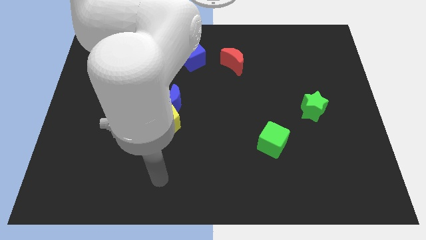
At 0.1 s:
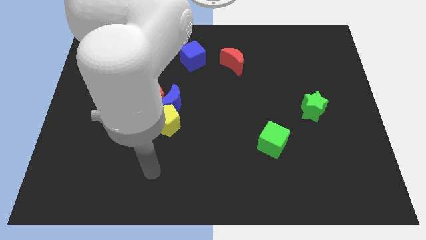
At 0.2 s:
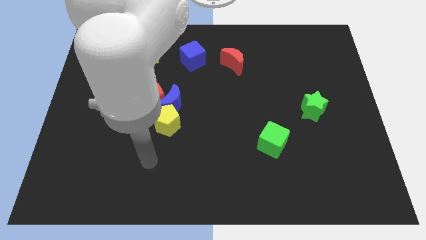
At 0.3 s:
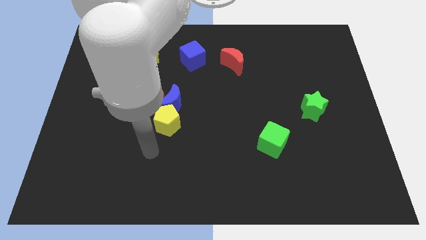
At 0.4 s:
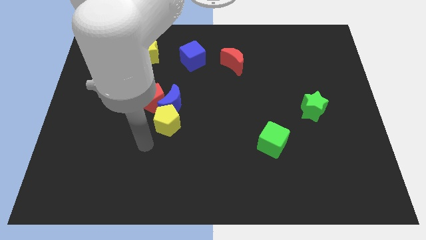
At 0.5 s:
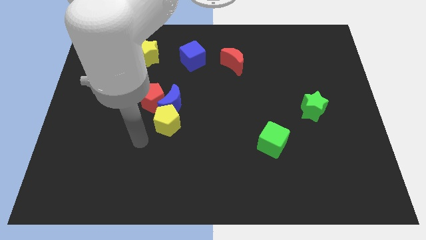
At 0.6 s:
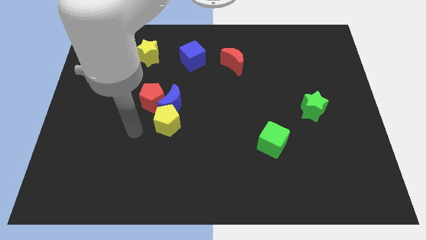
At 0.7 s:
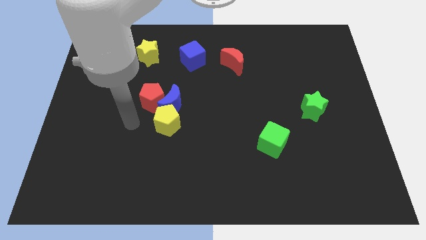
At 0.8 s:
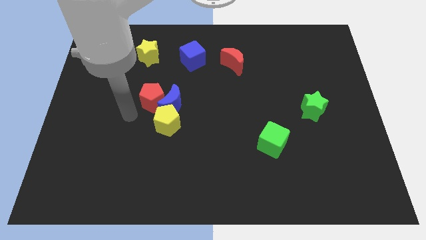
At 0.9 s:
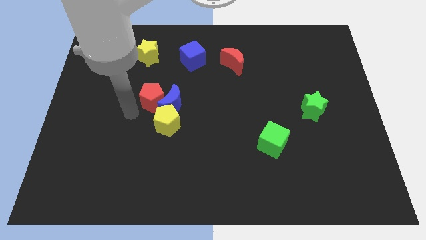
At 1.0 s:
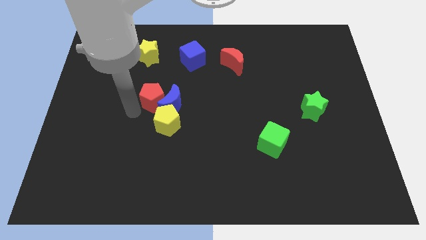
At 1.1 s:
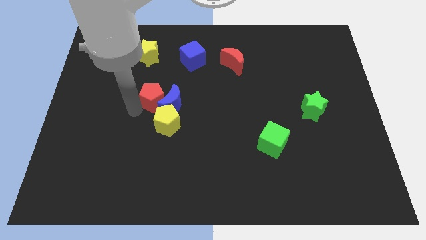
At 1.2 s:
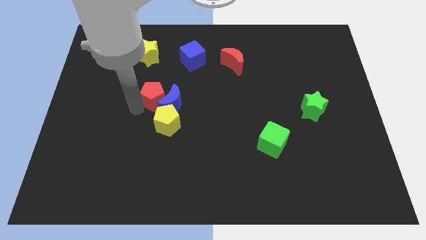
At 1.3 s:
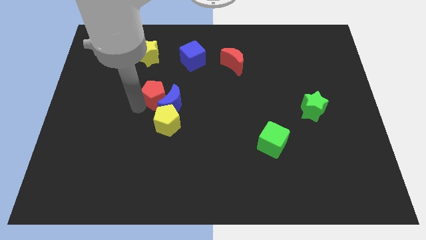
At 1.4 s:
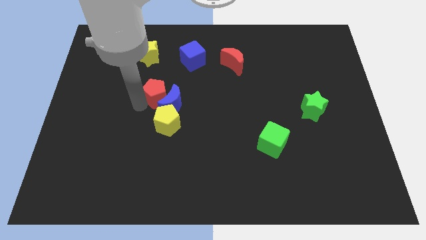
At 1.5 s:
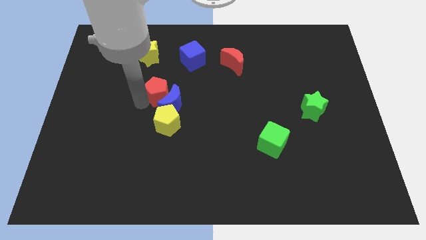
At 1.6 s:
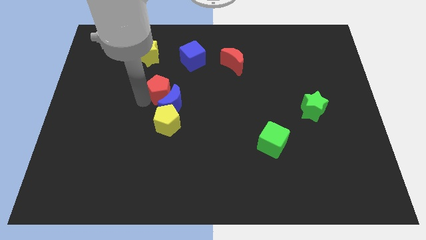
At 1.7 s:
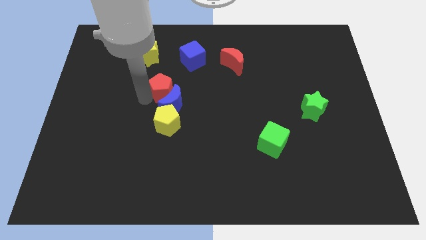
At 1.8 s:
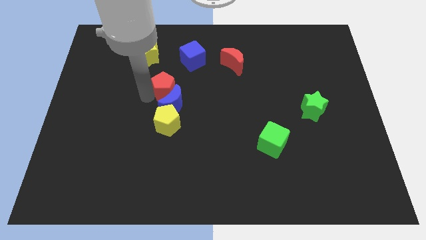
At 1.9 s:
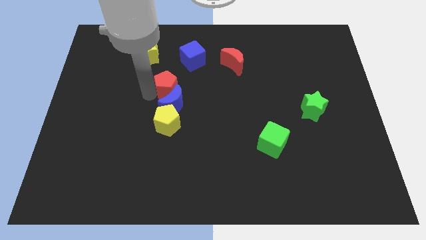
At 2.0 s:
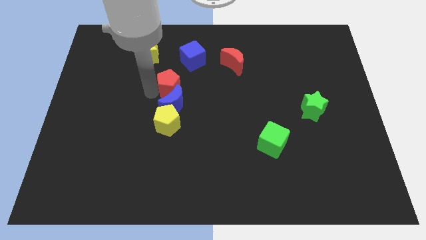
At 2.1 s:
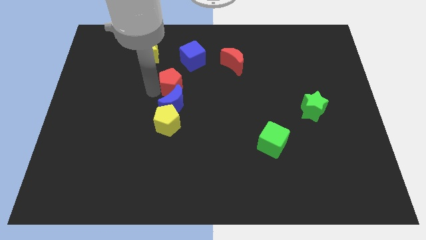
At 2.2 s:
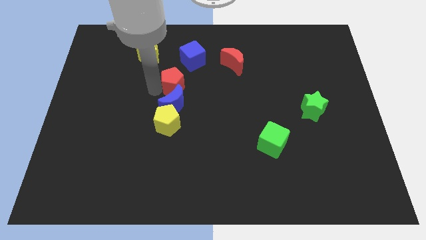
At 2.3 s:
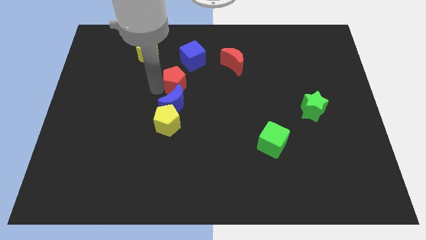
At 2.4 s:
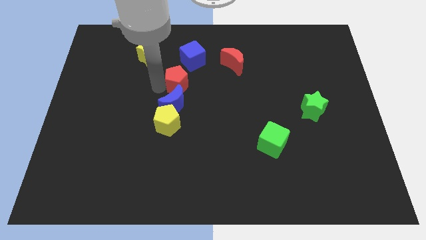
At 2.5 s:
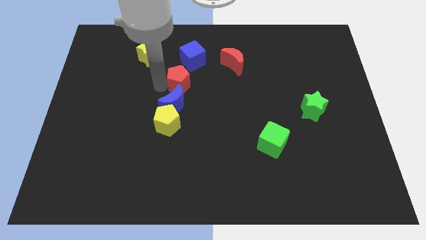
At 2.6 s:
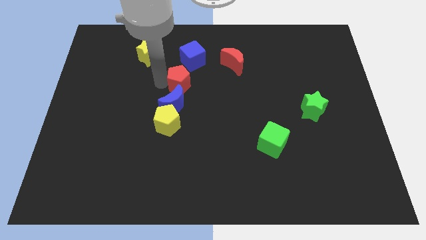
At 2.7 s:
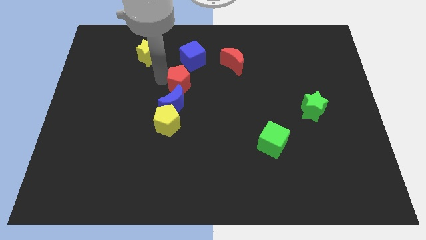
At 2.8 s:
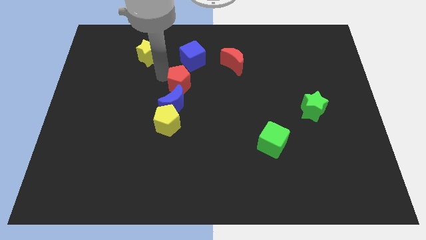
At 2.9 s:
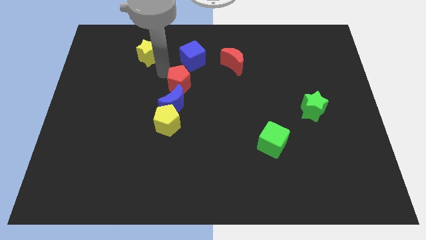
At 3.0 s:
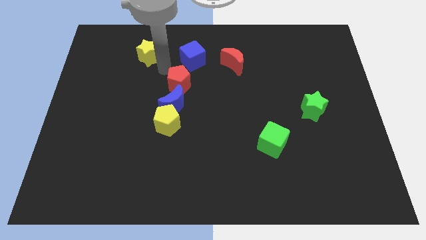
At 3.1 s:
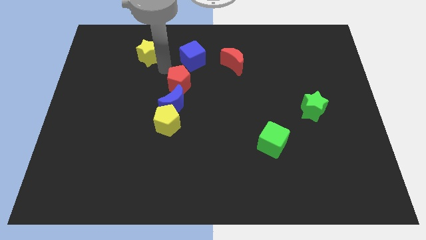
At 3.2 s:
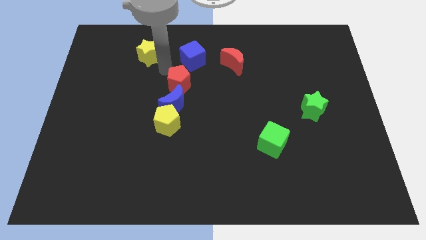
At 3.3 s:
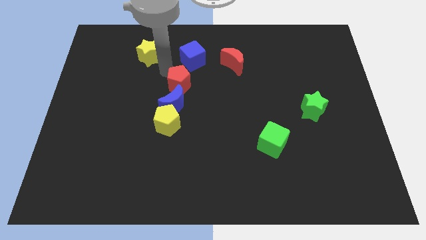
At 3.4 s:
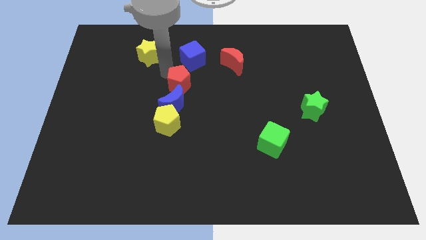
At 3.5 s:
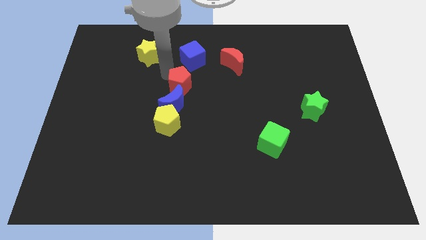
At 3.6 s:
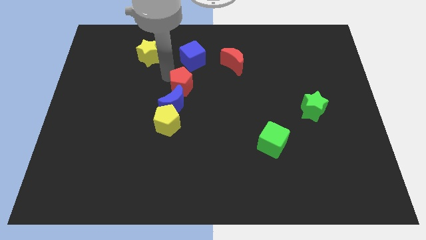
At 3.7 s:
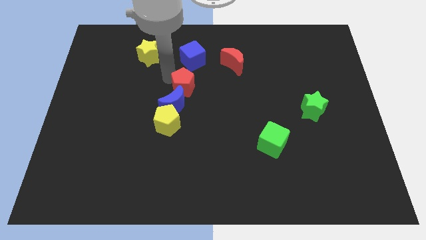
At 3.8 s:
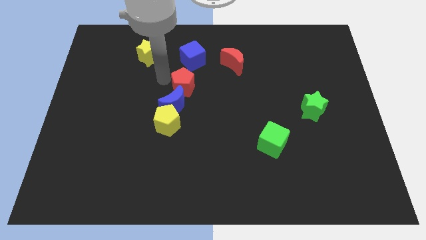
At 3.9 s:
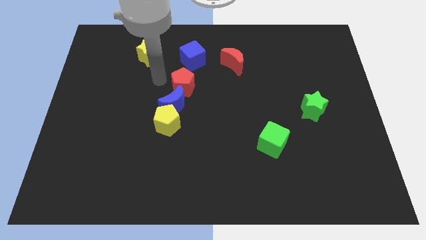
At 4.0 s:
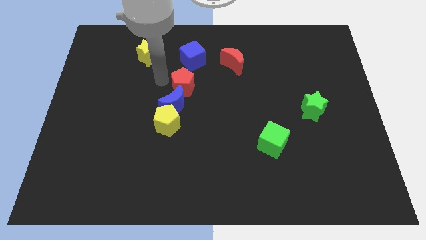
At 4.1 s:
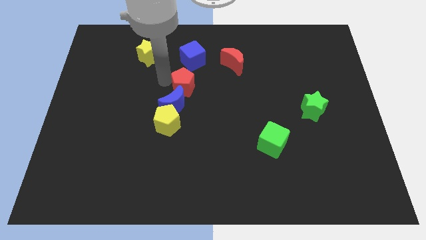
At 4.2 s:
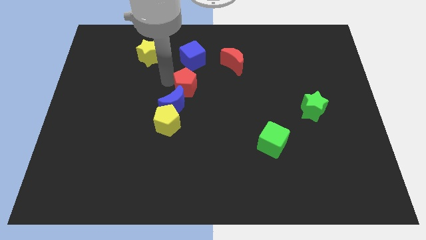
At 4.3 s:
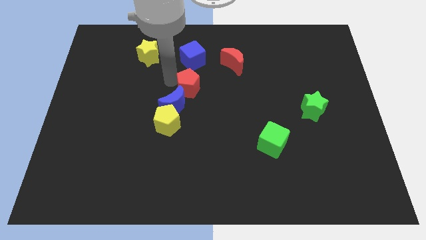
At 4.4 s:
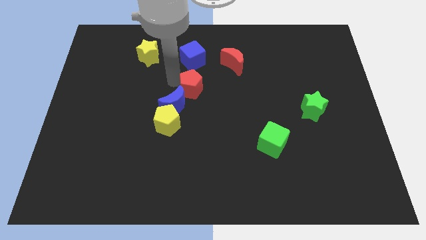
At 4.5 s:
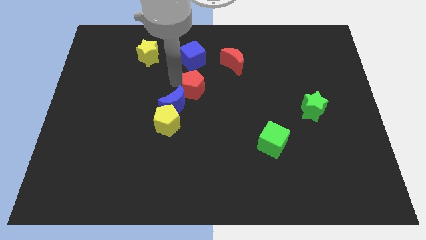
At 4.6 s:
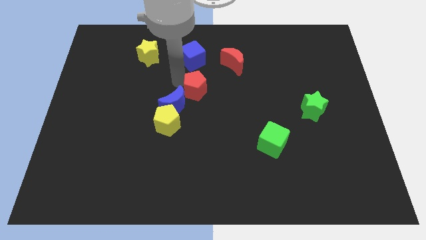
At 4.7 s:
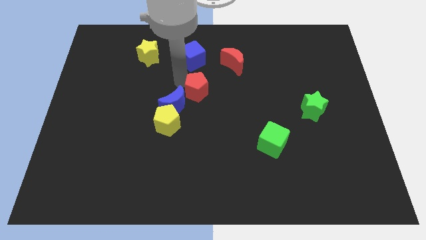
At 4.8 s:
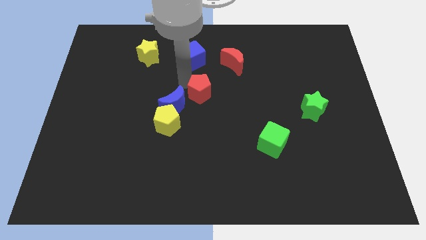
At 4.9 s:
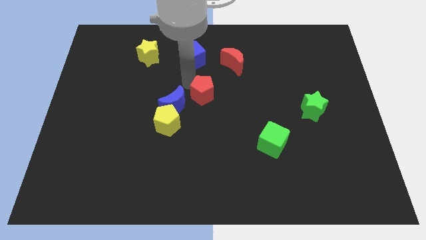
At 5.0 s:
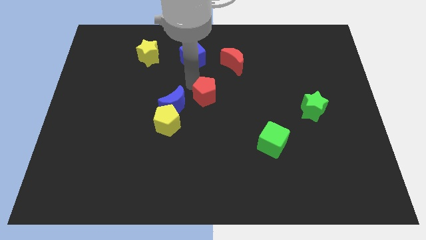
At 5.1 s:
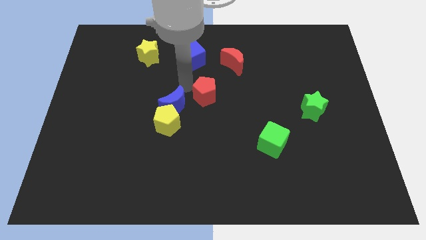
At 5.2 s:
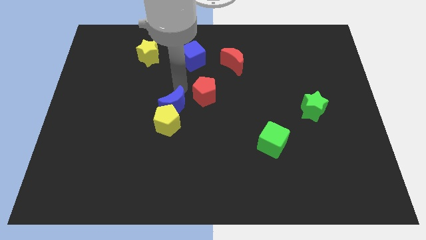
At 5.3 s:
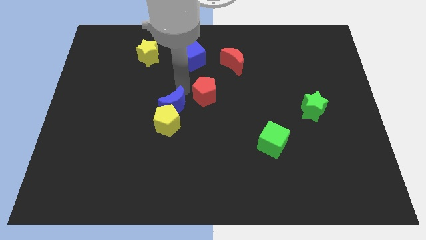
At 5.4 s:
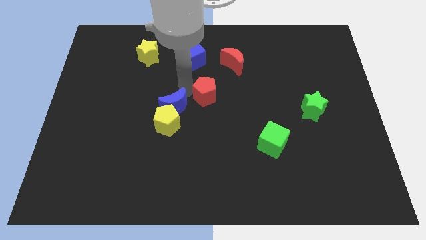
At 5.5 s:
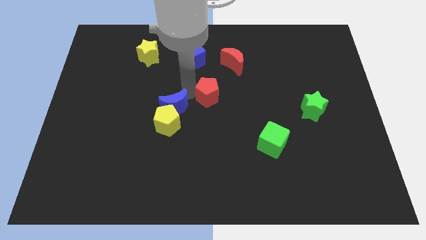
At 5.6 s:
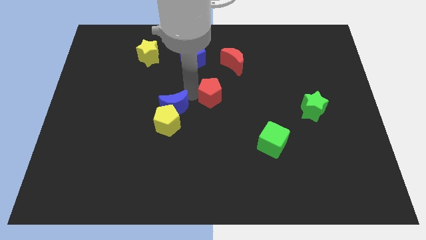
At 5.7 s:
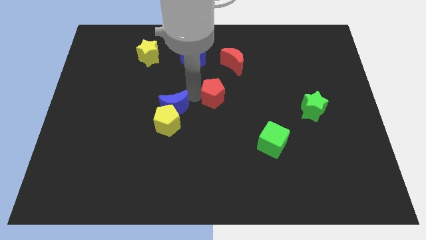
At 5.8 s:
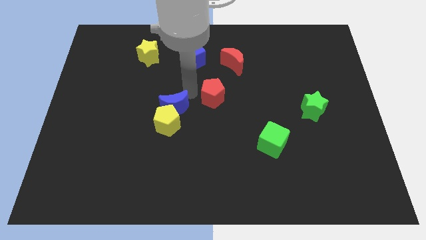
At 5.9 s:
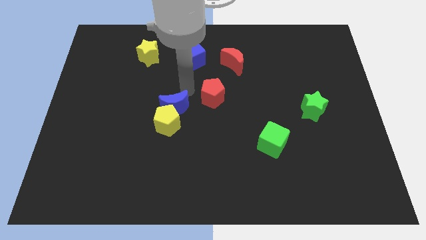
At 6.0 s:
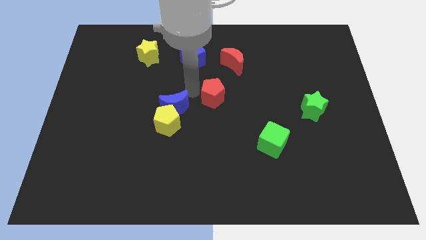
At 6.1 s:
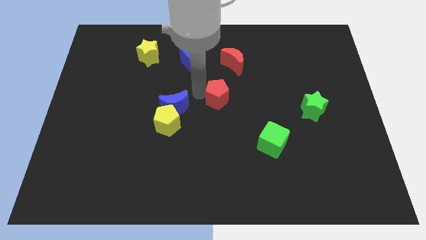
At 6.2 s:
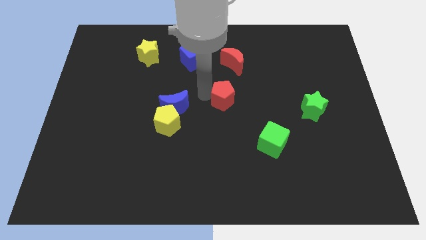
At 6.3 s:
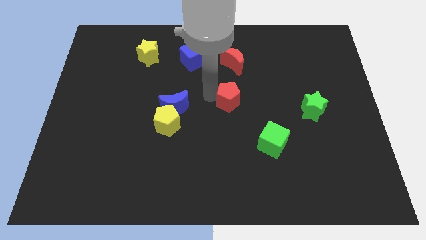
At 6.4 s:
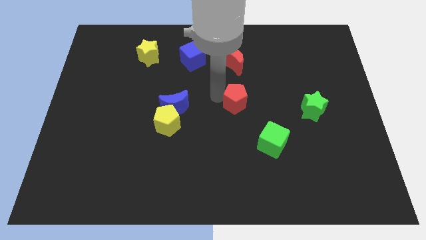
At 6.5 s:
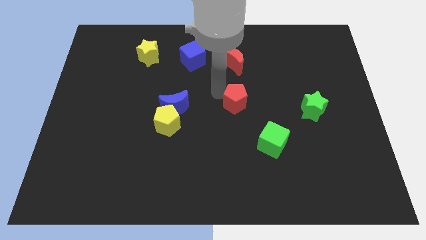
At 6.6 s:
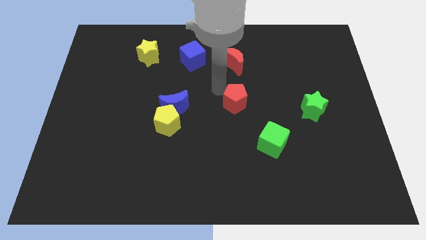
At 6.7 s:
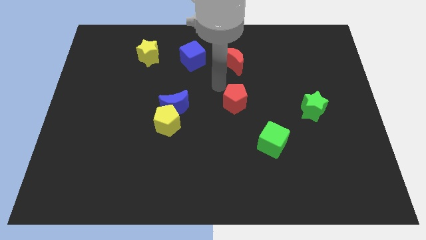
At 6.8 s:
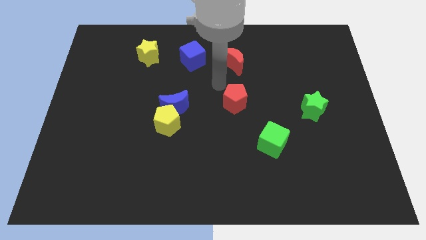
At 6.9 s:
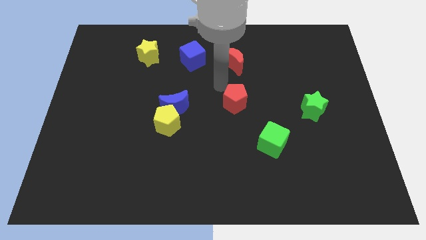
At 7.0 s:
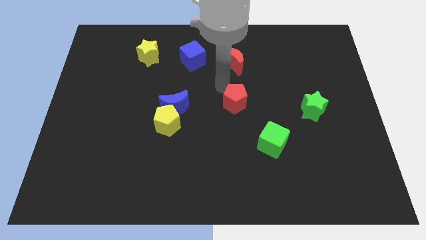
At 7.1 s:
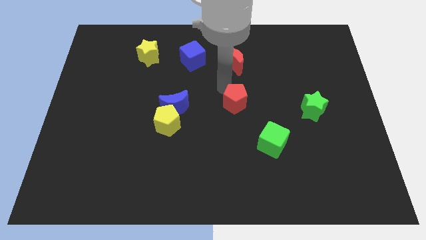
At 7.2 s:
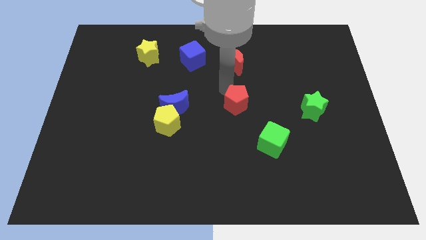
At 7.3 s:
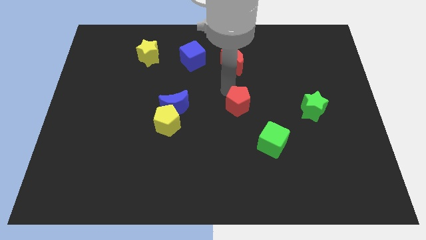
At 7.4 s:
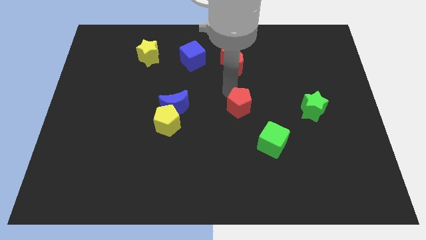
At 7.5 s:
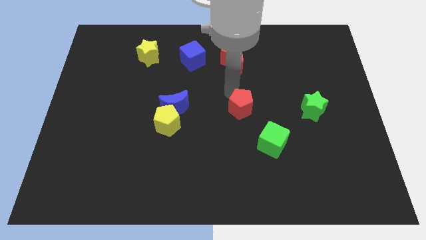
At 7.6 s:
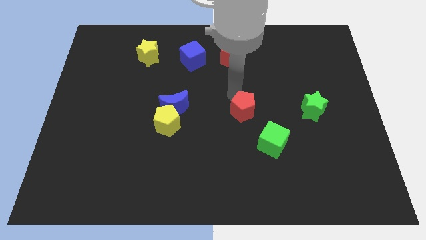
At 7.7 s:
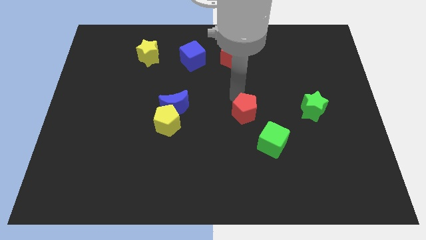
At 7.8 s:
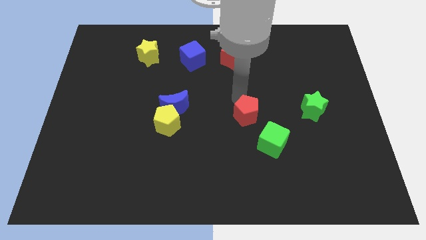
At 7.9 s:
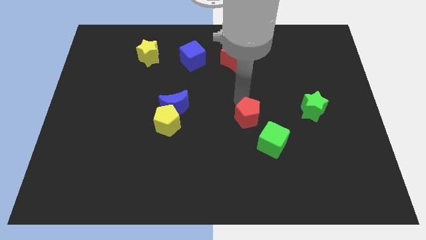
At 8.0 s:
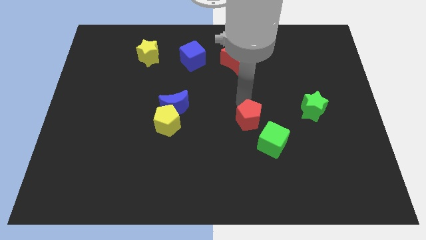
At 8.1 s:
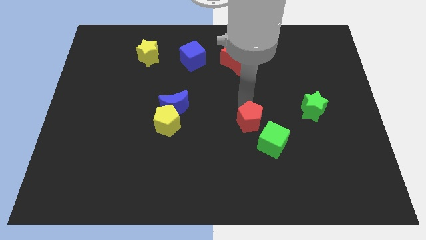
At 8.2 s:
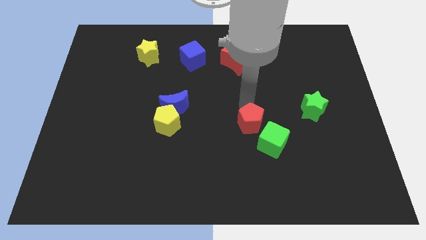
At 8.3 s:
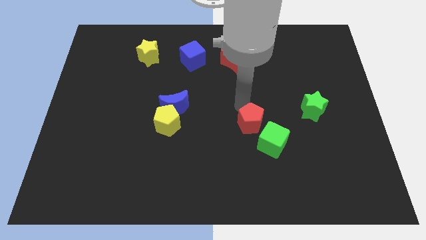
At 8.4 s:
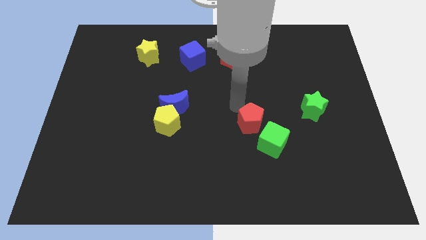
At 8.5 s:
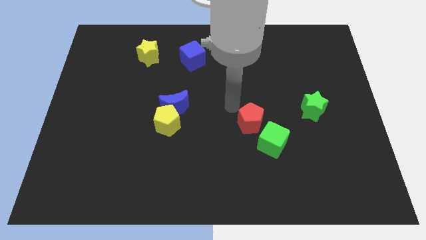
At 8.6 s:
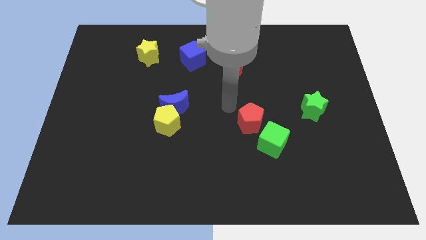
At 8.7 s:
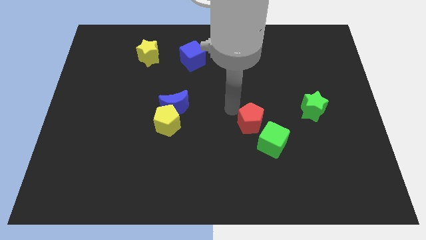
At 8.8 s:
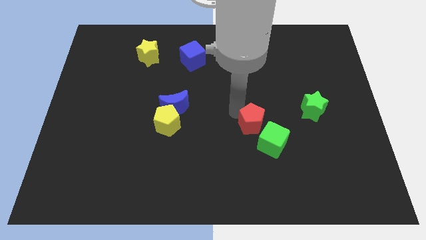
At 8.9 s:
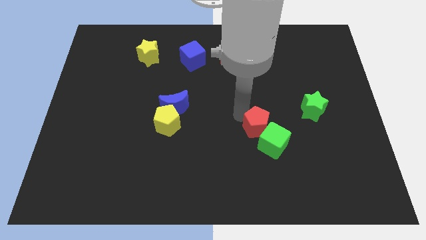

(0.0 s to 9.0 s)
slide the red pentagon close to the green cube
